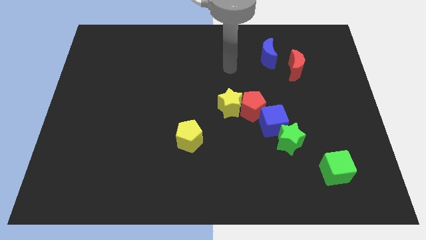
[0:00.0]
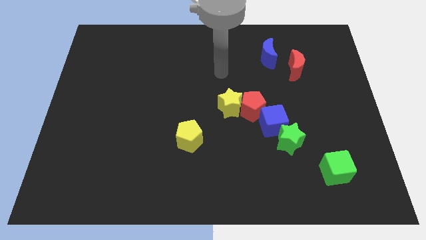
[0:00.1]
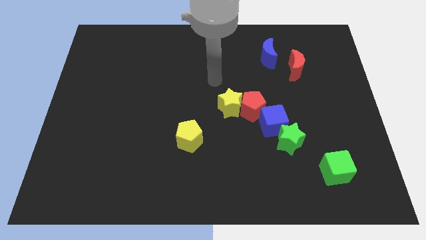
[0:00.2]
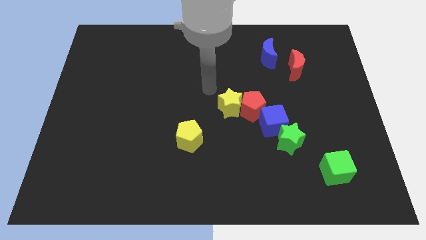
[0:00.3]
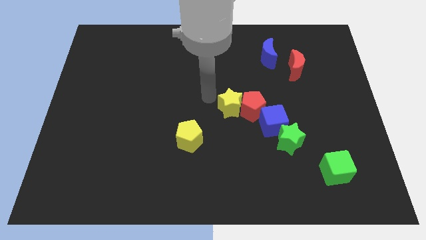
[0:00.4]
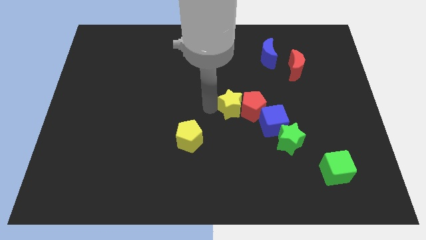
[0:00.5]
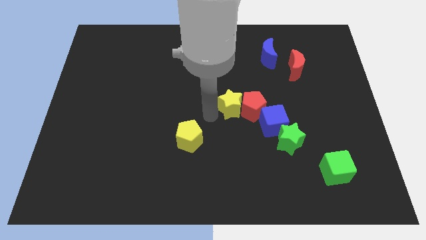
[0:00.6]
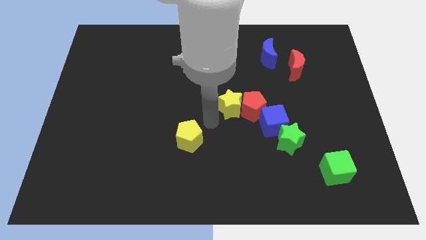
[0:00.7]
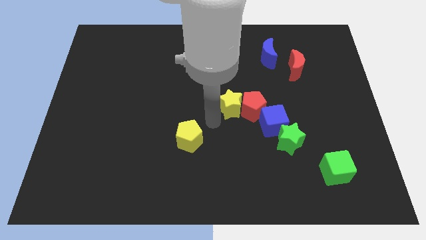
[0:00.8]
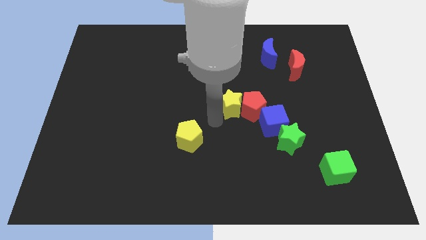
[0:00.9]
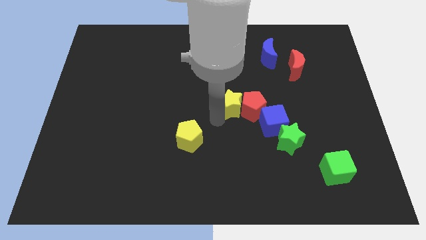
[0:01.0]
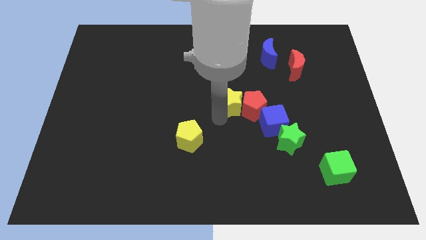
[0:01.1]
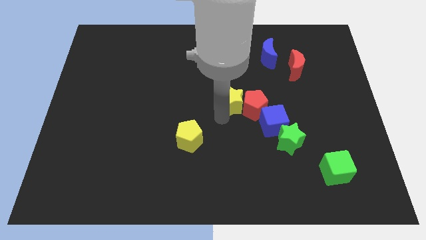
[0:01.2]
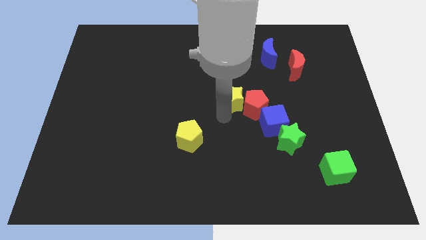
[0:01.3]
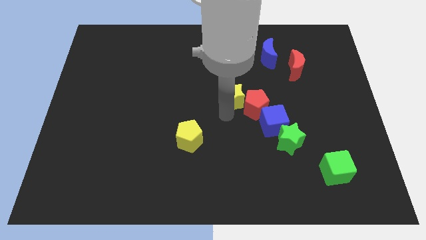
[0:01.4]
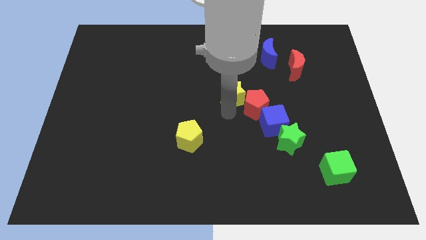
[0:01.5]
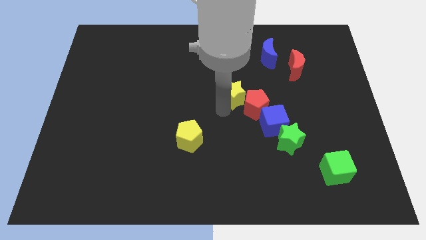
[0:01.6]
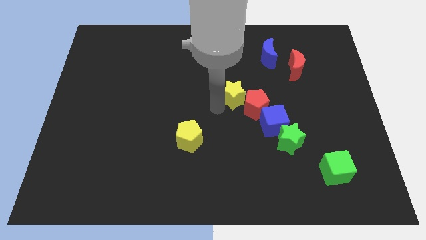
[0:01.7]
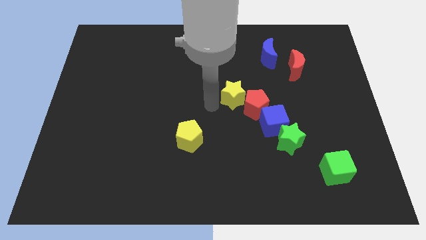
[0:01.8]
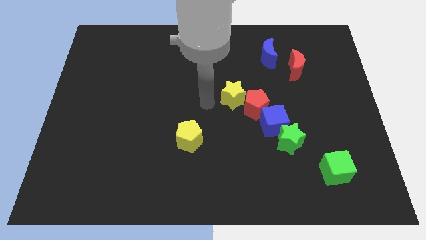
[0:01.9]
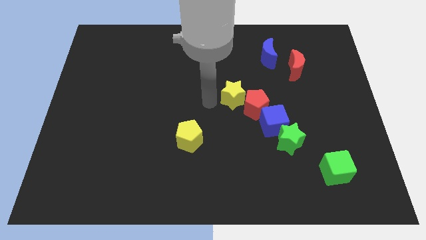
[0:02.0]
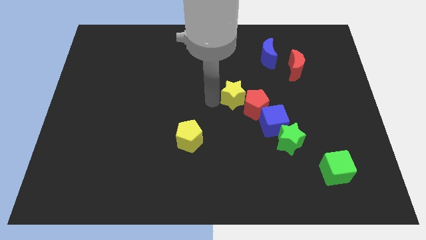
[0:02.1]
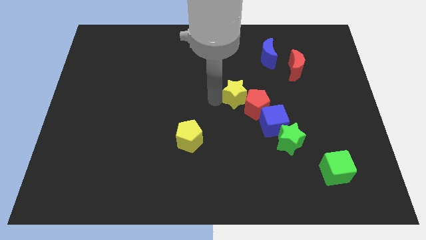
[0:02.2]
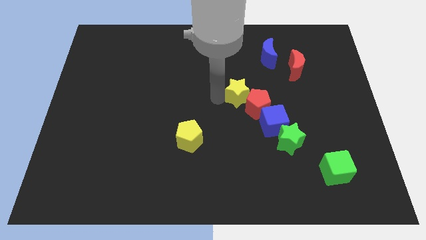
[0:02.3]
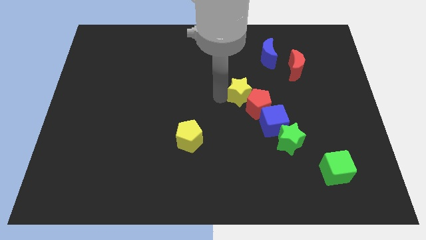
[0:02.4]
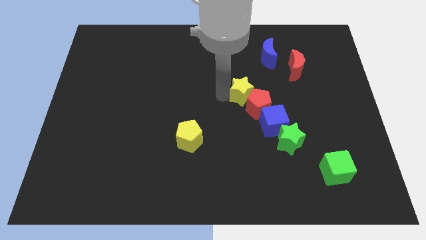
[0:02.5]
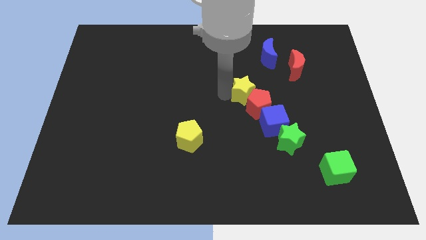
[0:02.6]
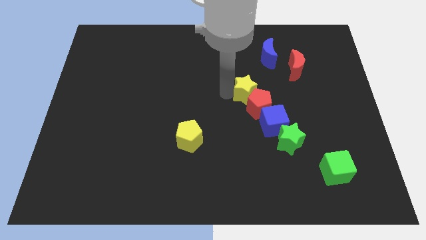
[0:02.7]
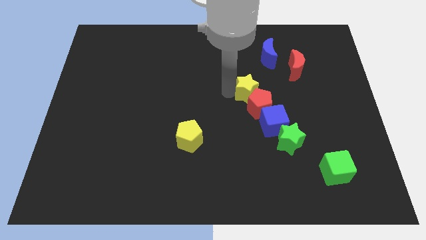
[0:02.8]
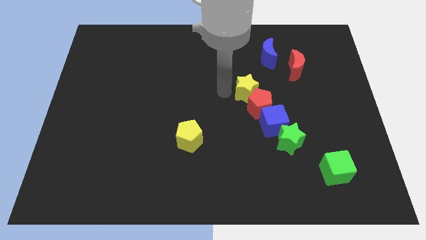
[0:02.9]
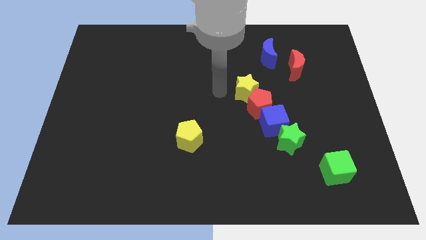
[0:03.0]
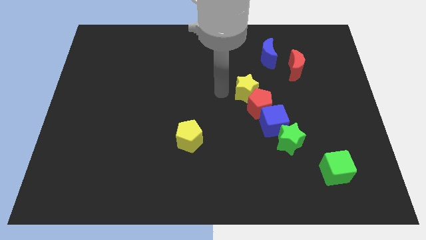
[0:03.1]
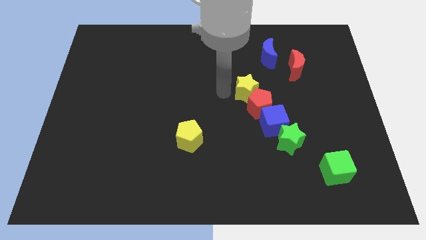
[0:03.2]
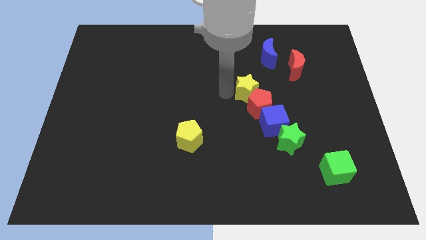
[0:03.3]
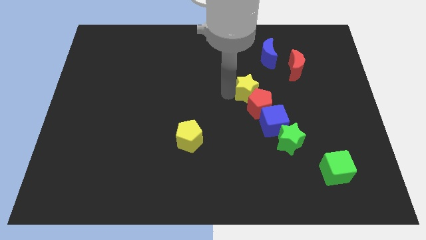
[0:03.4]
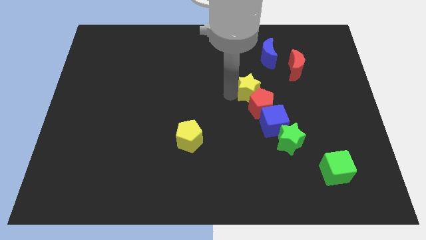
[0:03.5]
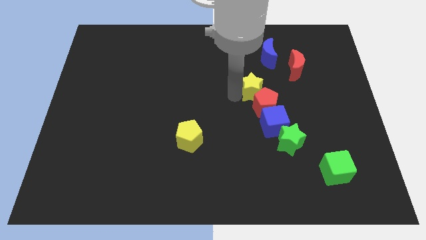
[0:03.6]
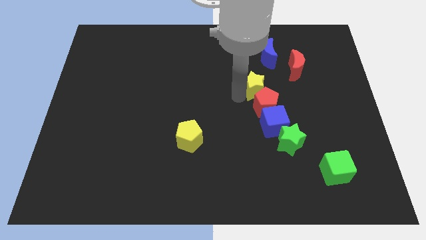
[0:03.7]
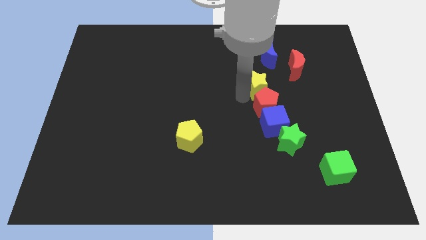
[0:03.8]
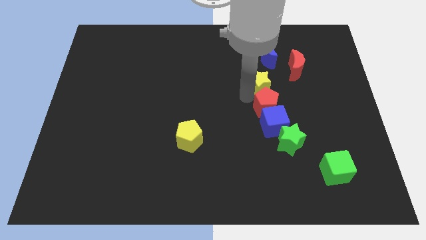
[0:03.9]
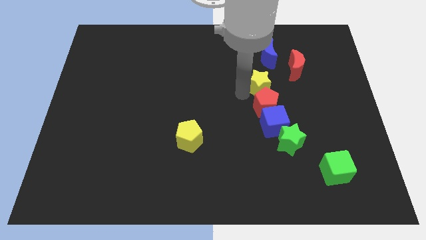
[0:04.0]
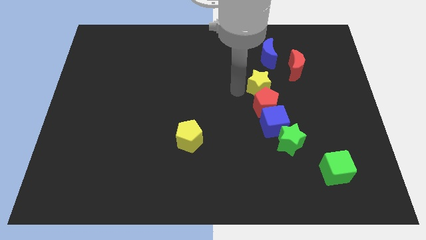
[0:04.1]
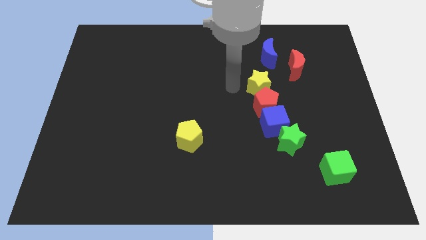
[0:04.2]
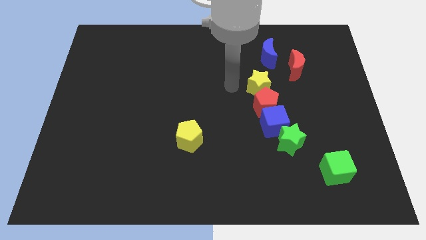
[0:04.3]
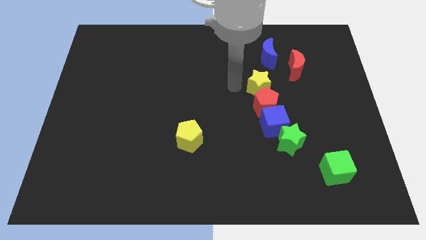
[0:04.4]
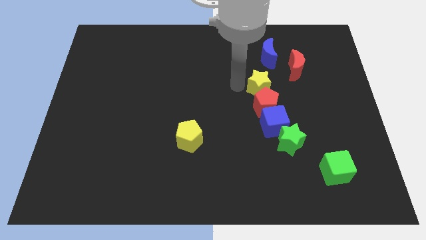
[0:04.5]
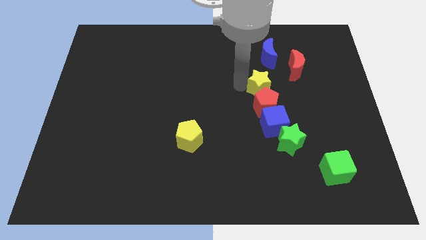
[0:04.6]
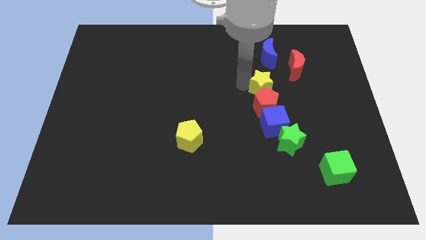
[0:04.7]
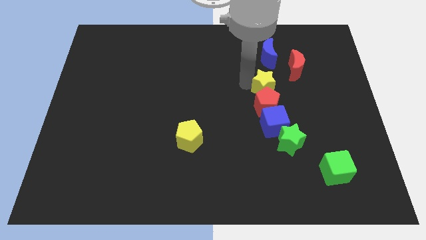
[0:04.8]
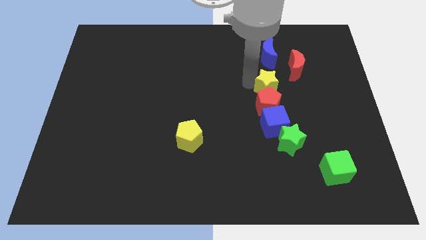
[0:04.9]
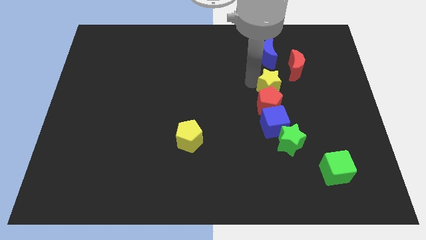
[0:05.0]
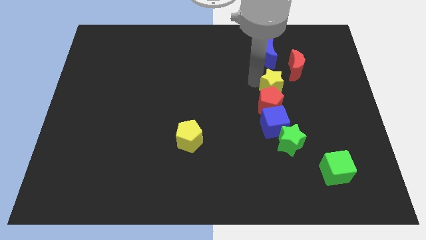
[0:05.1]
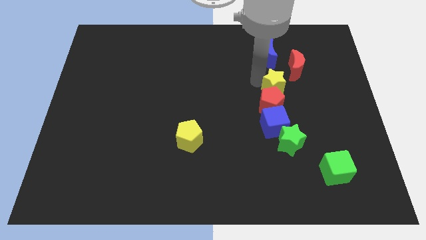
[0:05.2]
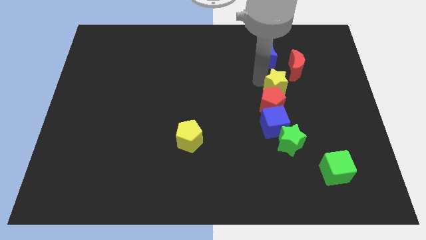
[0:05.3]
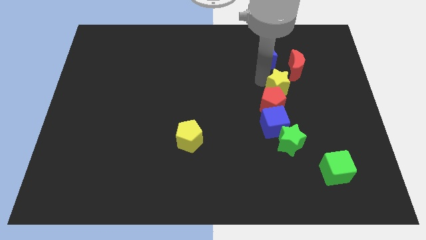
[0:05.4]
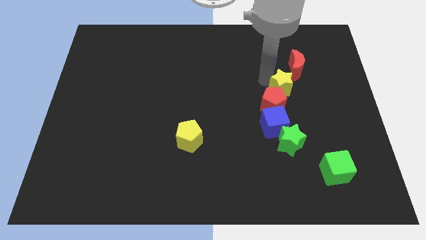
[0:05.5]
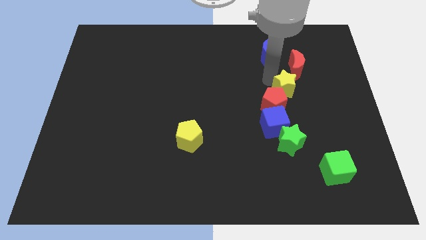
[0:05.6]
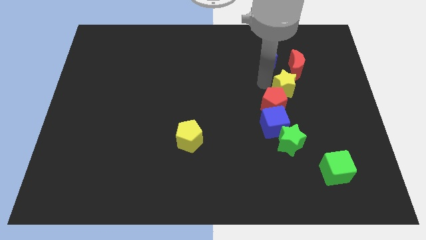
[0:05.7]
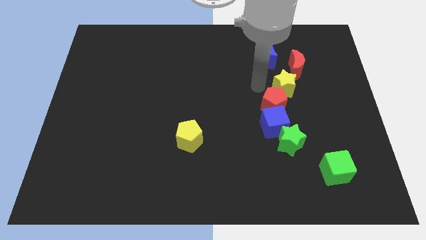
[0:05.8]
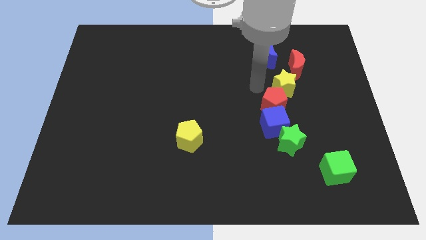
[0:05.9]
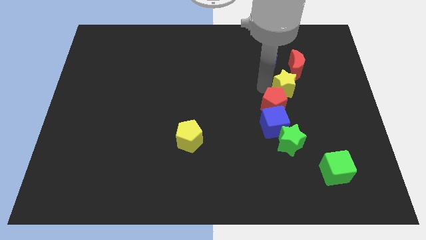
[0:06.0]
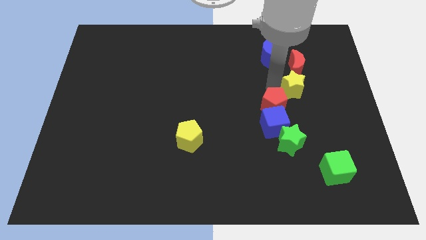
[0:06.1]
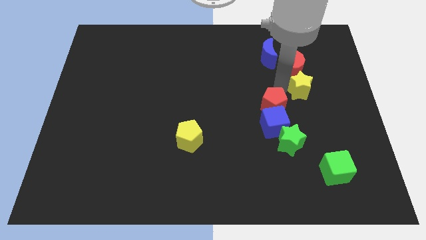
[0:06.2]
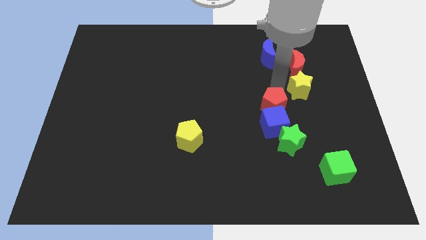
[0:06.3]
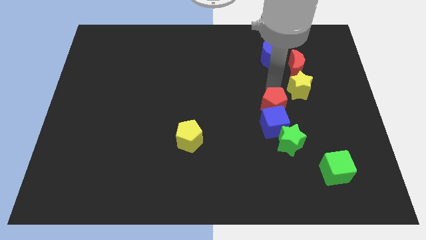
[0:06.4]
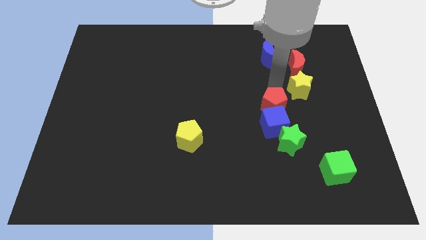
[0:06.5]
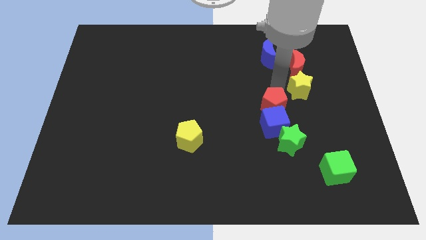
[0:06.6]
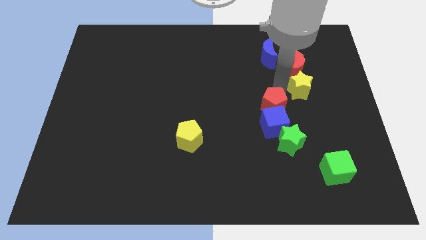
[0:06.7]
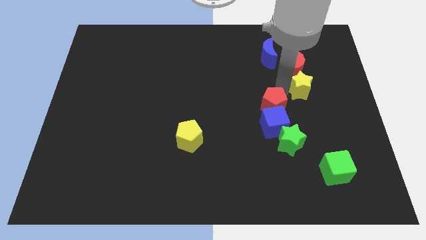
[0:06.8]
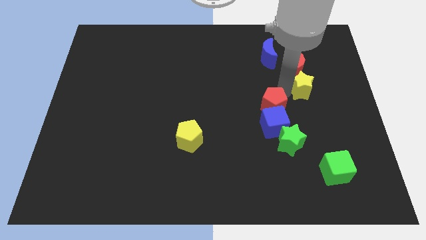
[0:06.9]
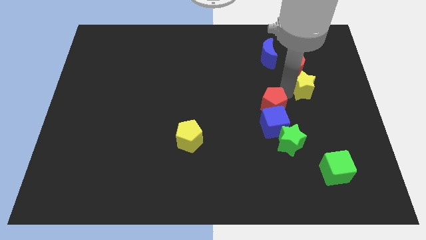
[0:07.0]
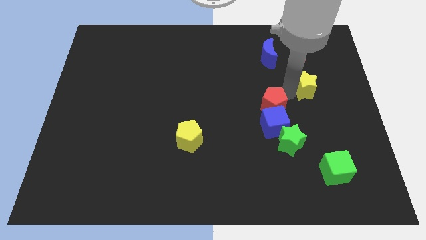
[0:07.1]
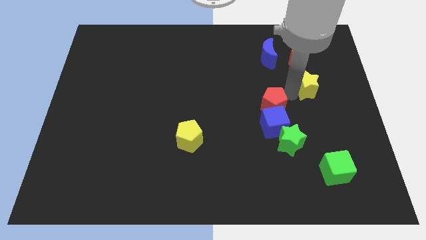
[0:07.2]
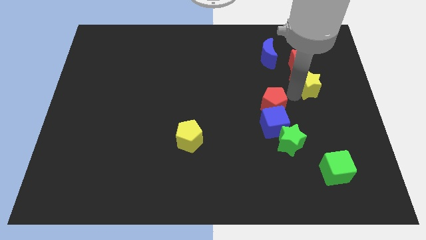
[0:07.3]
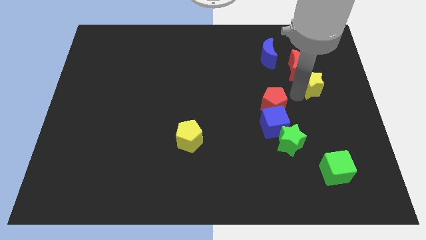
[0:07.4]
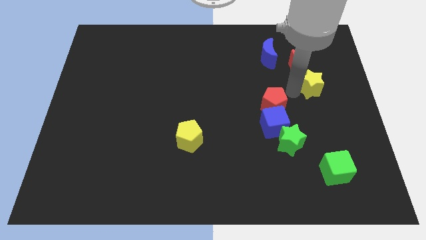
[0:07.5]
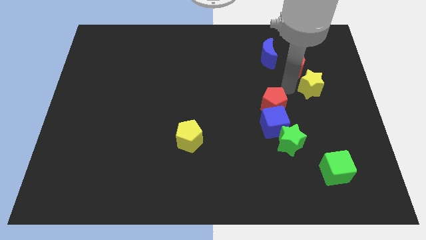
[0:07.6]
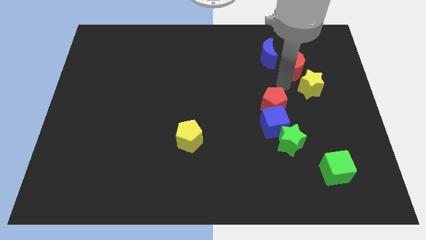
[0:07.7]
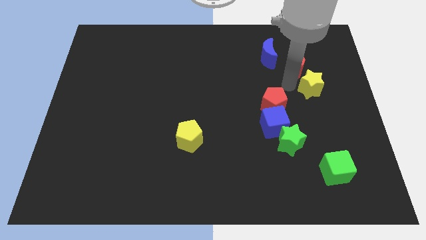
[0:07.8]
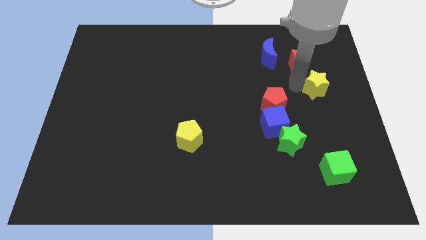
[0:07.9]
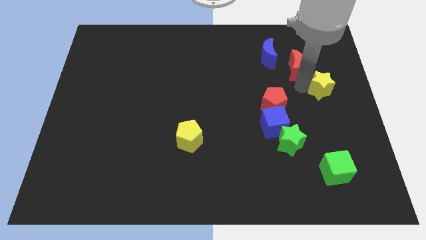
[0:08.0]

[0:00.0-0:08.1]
slide the yellow star to the center right
